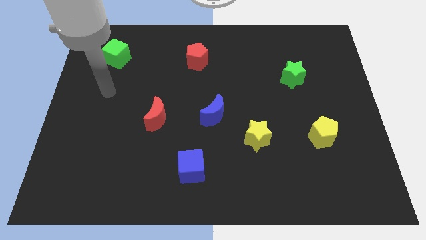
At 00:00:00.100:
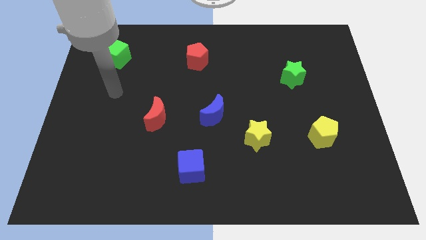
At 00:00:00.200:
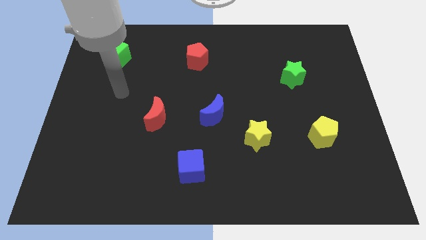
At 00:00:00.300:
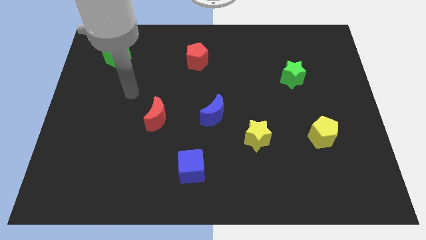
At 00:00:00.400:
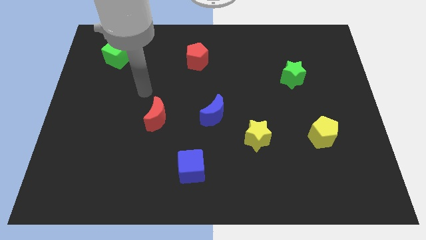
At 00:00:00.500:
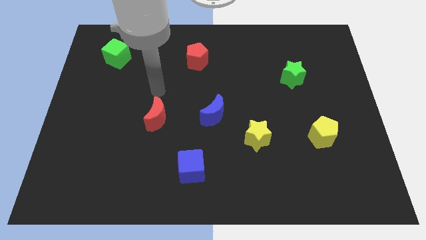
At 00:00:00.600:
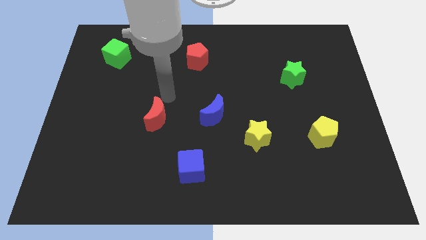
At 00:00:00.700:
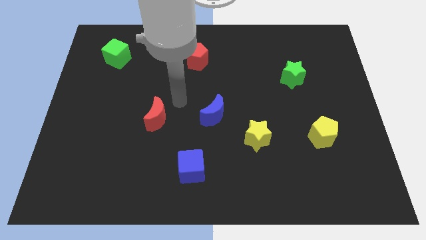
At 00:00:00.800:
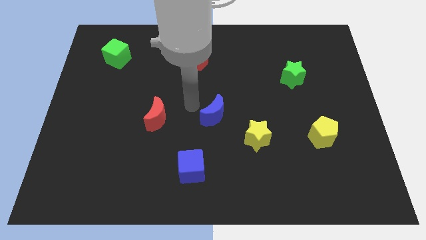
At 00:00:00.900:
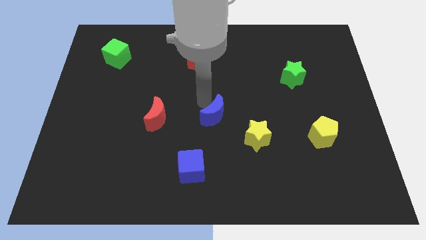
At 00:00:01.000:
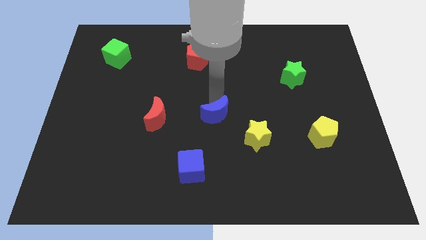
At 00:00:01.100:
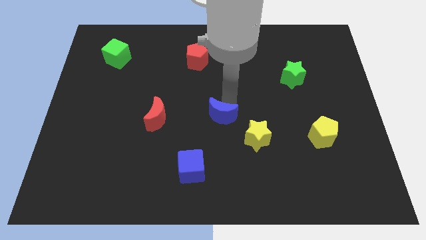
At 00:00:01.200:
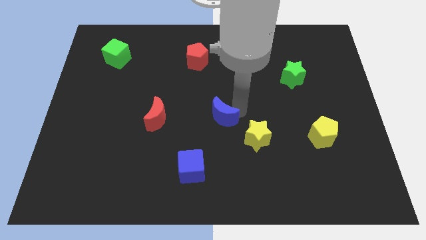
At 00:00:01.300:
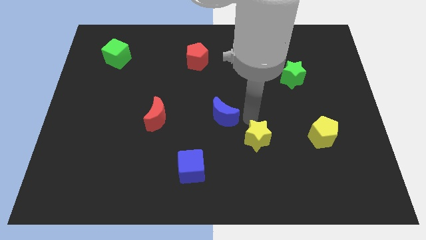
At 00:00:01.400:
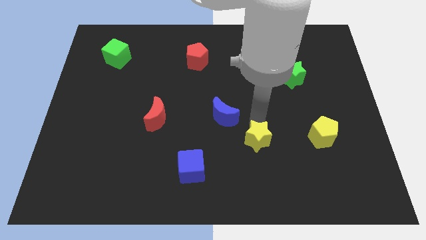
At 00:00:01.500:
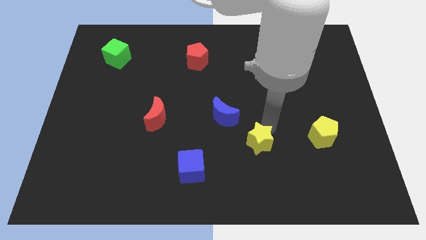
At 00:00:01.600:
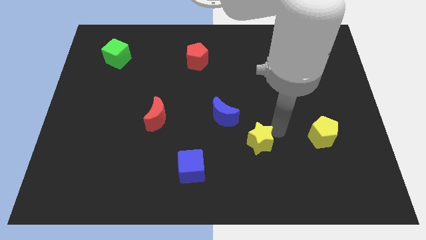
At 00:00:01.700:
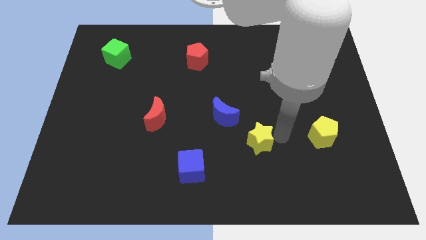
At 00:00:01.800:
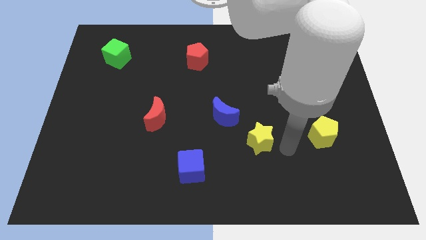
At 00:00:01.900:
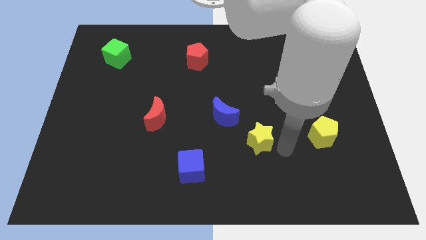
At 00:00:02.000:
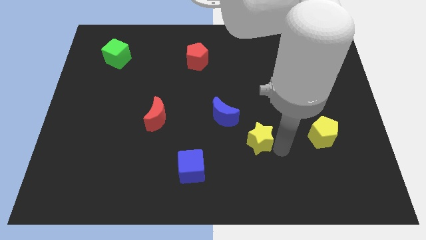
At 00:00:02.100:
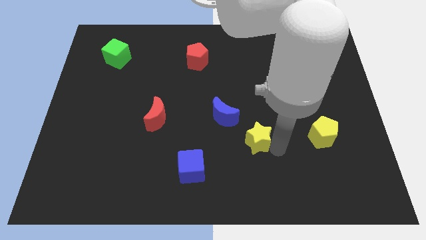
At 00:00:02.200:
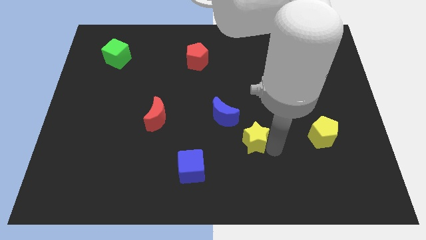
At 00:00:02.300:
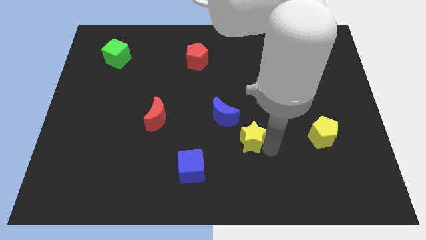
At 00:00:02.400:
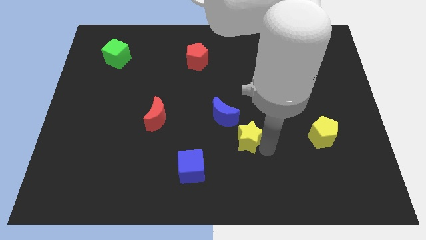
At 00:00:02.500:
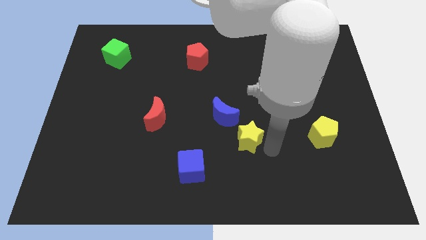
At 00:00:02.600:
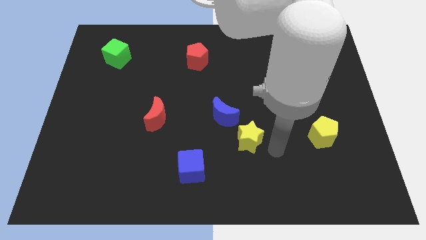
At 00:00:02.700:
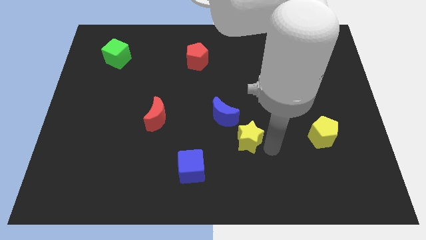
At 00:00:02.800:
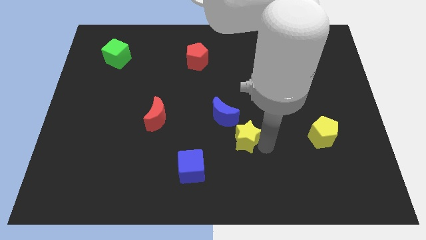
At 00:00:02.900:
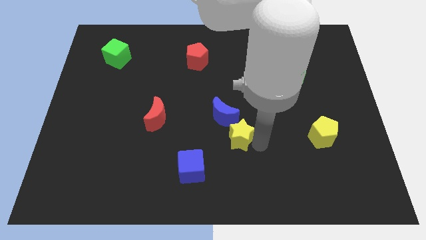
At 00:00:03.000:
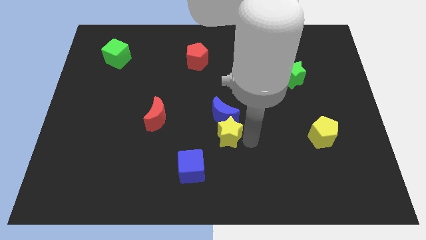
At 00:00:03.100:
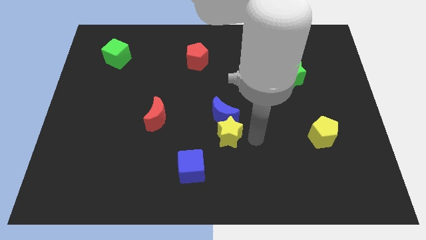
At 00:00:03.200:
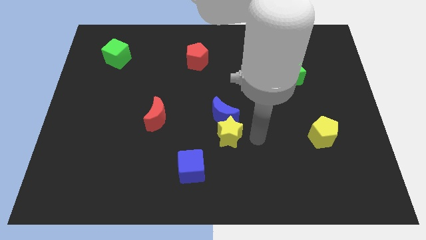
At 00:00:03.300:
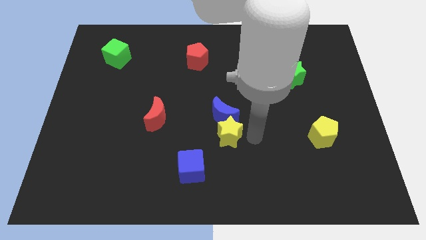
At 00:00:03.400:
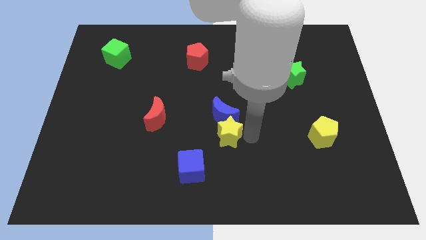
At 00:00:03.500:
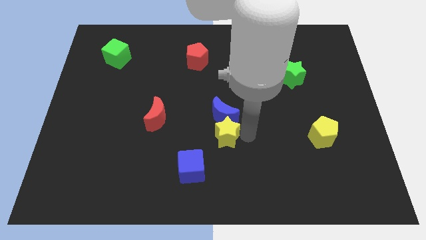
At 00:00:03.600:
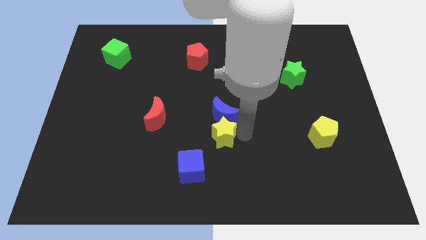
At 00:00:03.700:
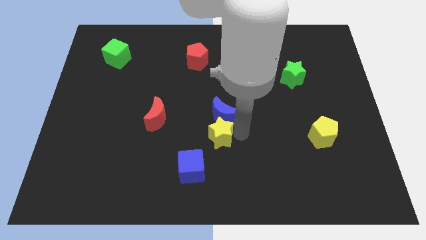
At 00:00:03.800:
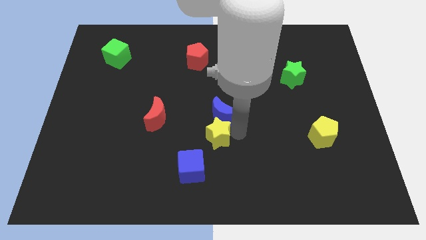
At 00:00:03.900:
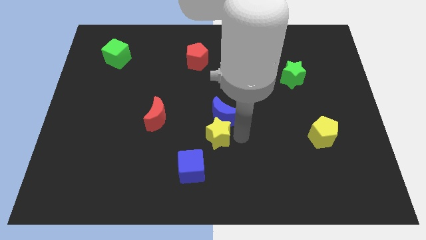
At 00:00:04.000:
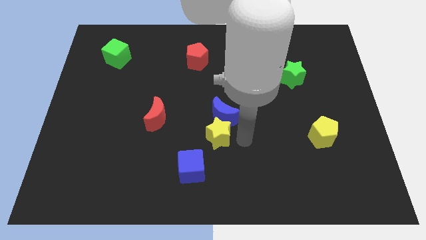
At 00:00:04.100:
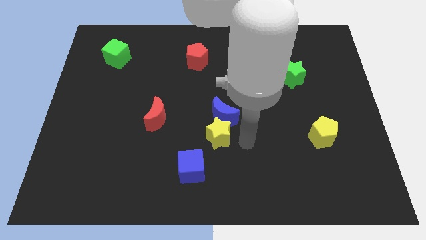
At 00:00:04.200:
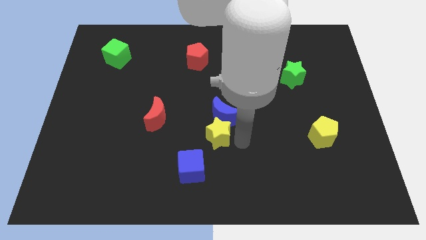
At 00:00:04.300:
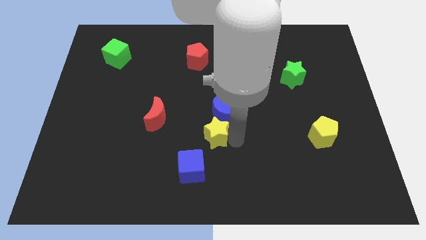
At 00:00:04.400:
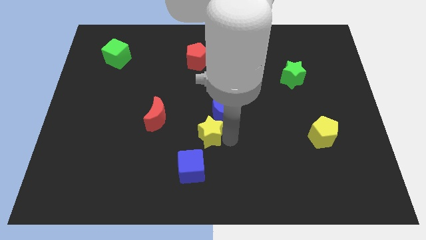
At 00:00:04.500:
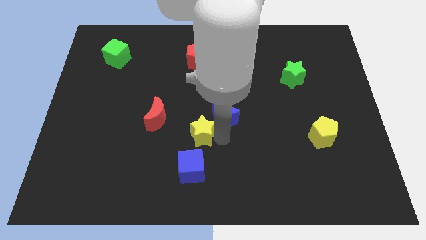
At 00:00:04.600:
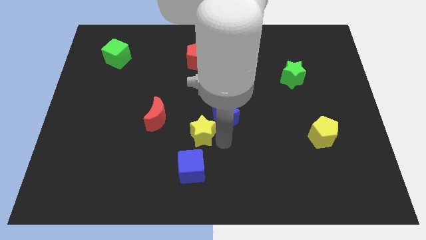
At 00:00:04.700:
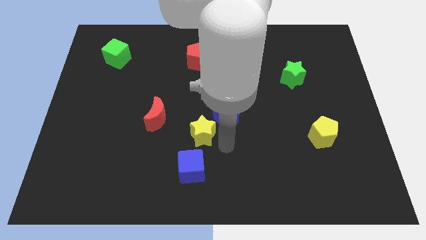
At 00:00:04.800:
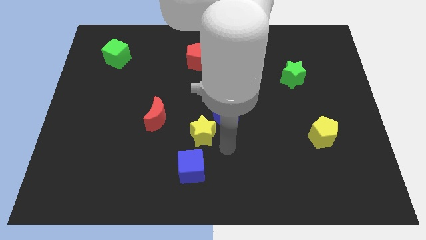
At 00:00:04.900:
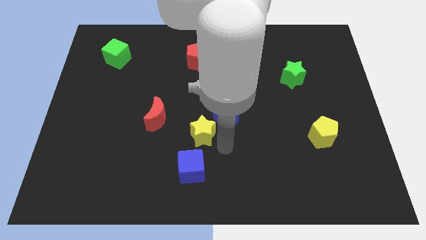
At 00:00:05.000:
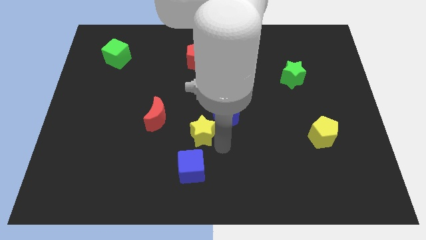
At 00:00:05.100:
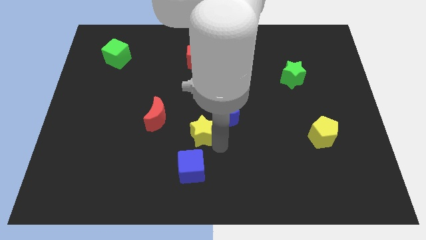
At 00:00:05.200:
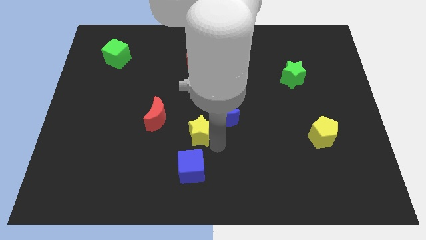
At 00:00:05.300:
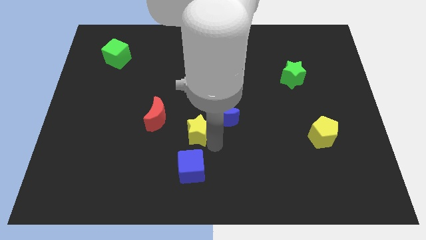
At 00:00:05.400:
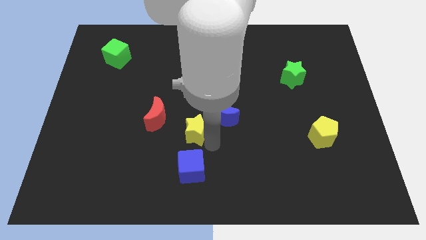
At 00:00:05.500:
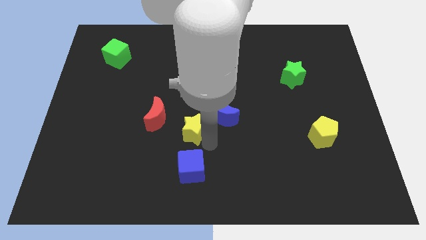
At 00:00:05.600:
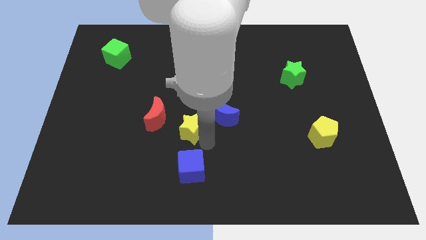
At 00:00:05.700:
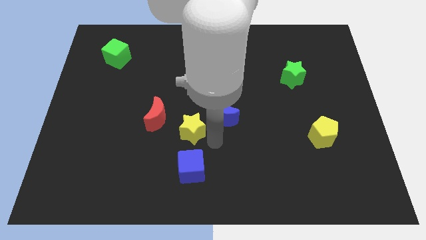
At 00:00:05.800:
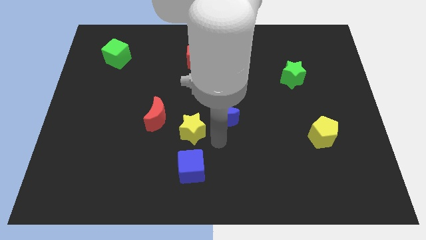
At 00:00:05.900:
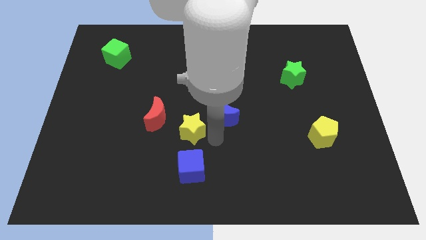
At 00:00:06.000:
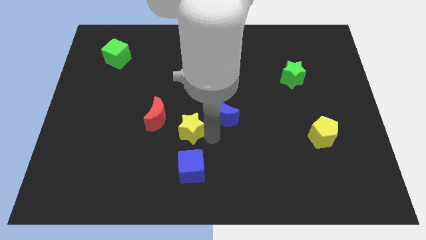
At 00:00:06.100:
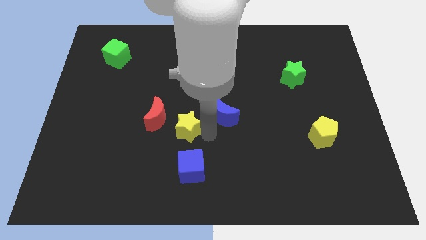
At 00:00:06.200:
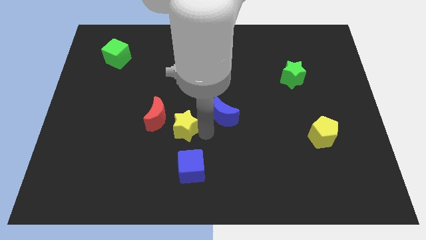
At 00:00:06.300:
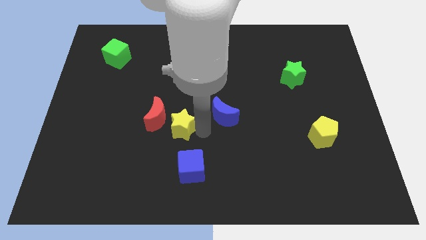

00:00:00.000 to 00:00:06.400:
slide the yellow star to the red moon
